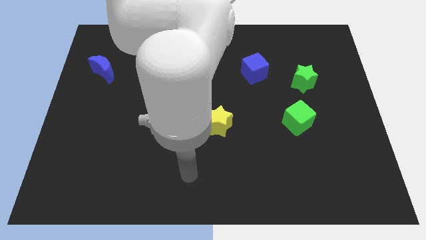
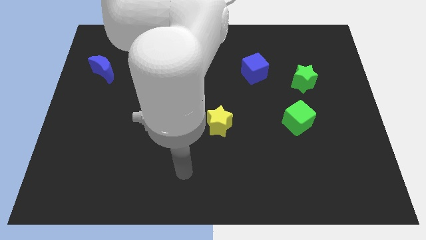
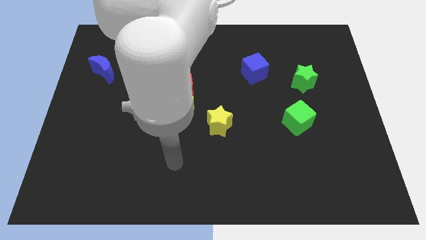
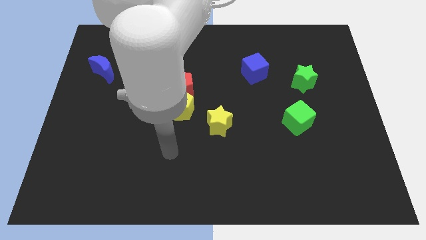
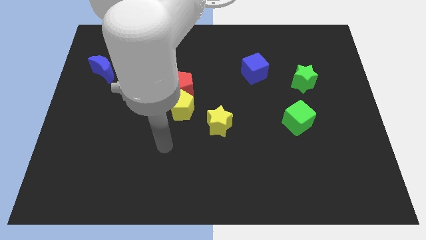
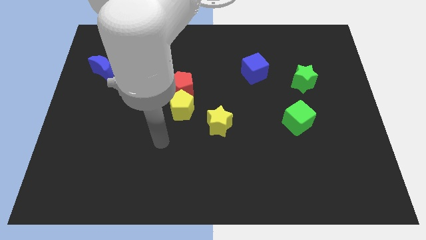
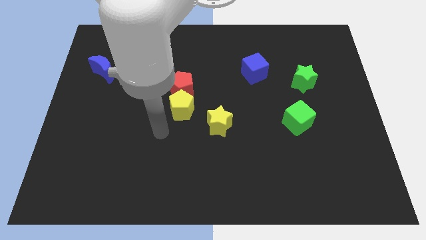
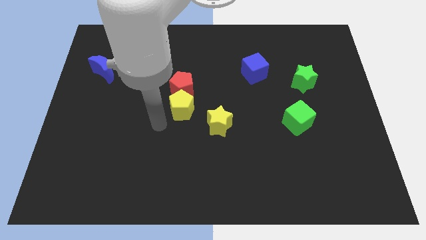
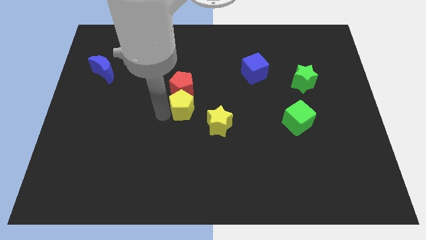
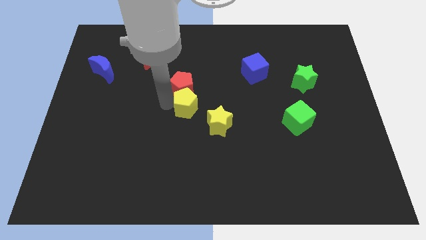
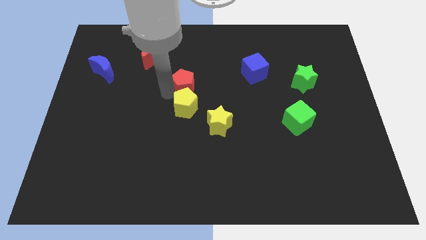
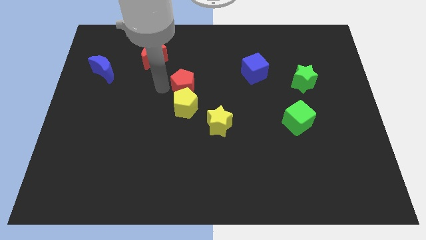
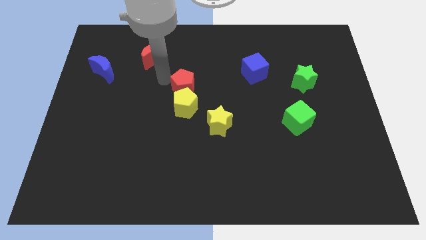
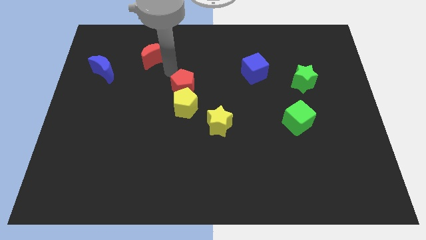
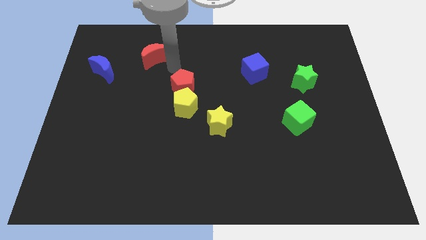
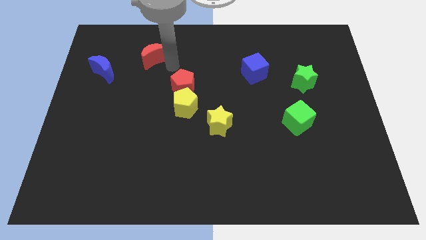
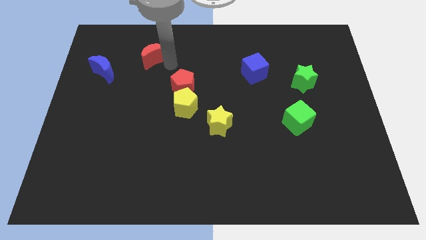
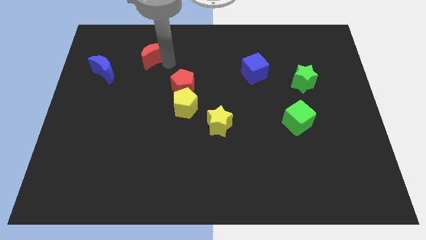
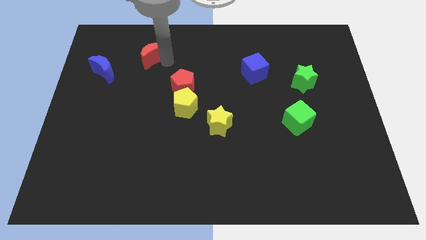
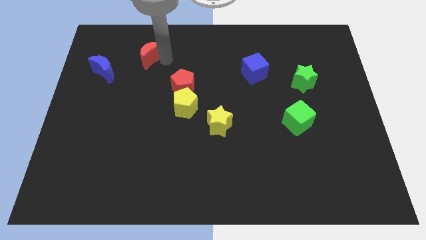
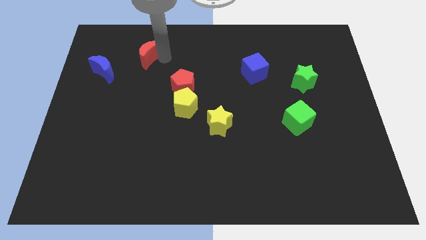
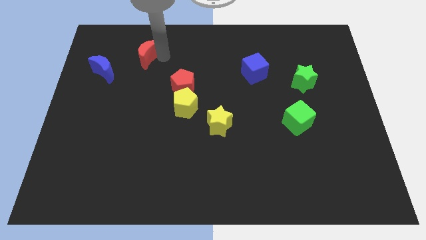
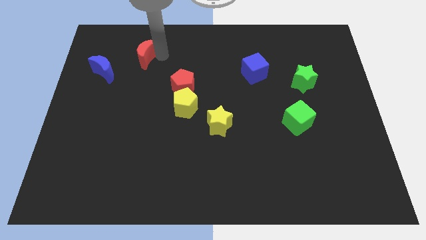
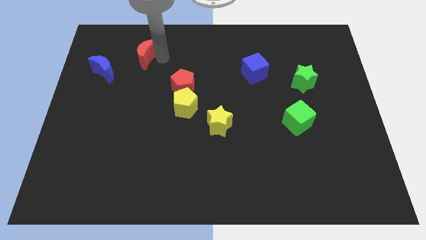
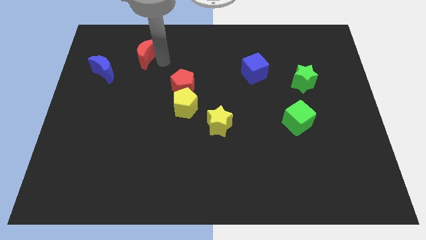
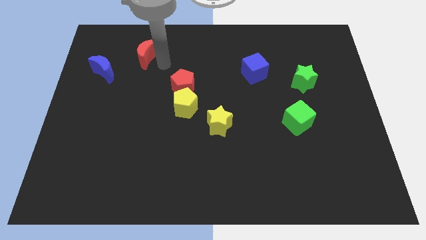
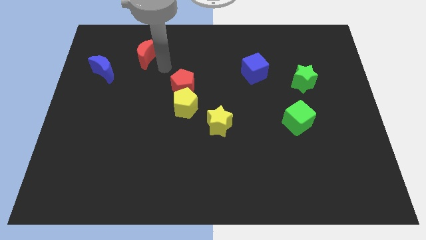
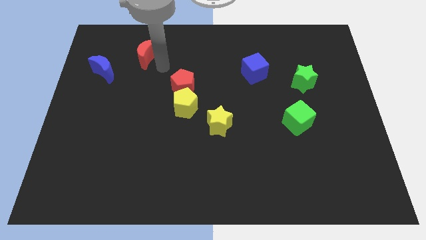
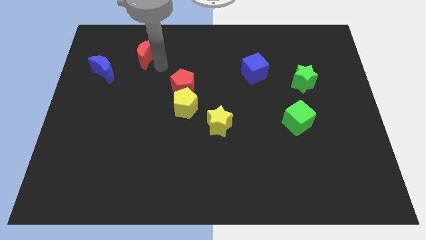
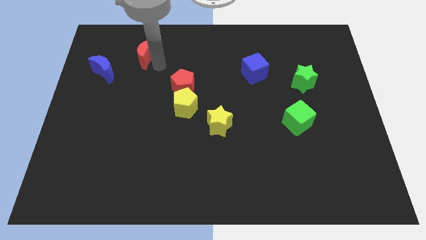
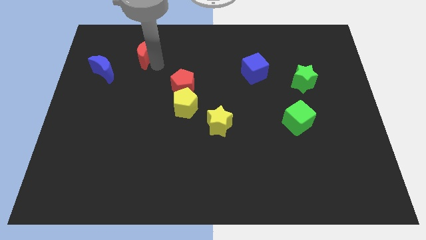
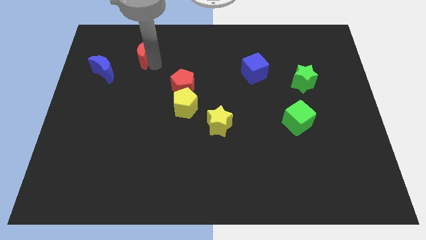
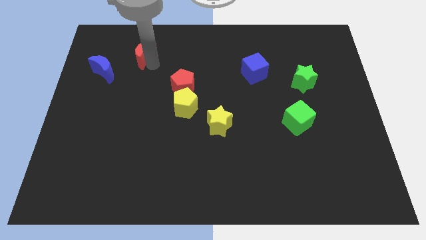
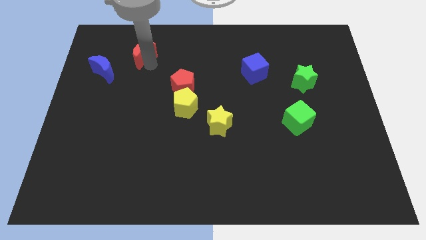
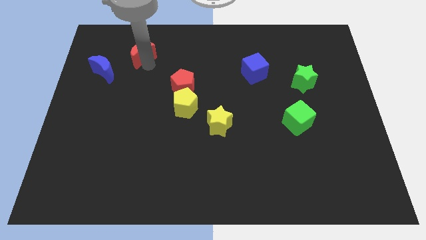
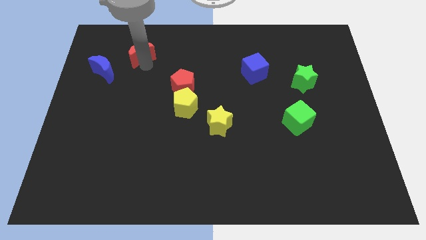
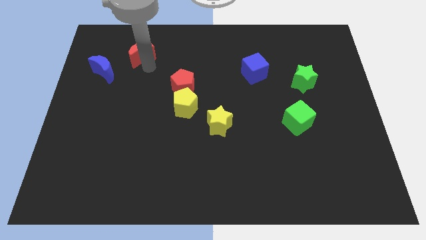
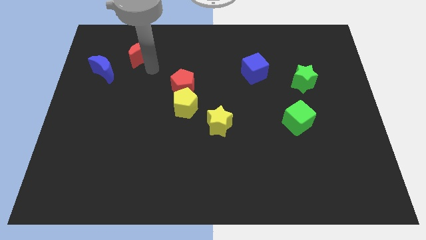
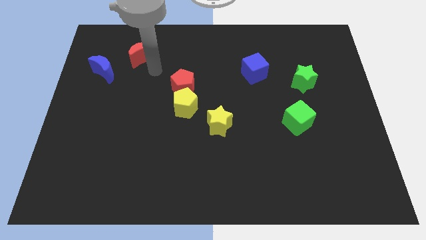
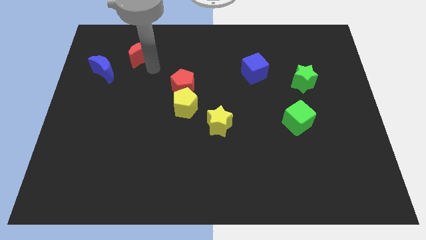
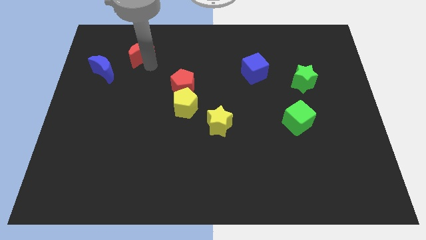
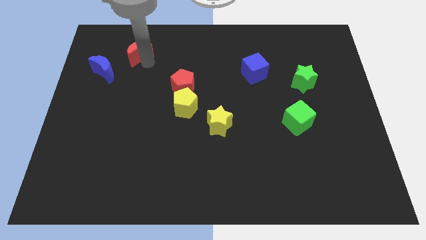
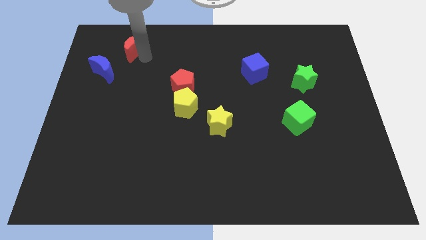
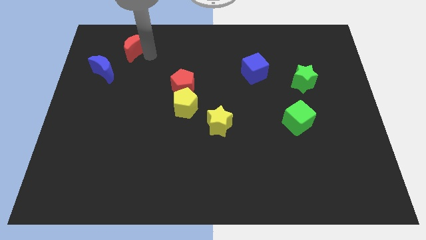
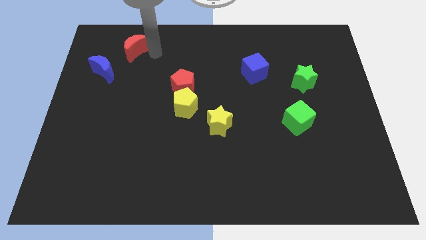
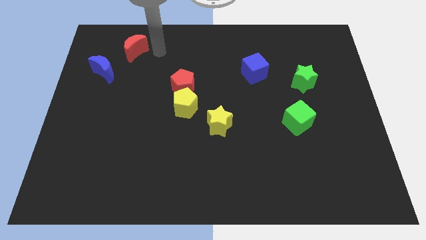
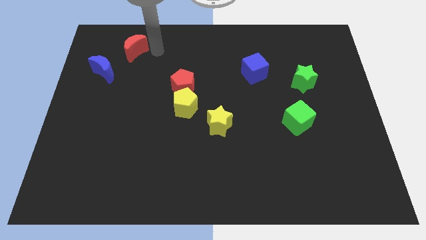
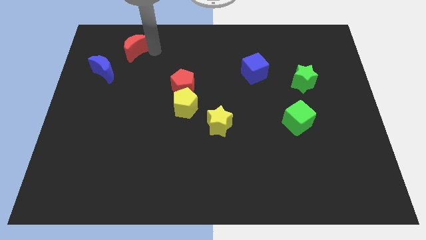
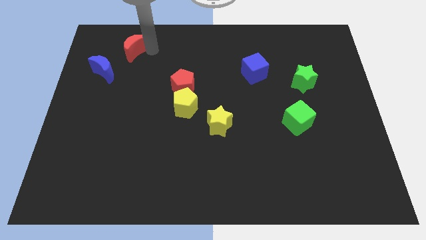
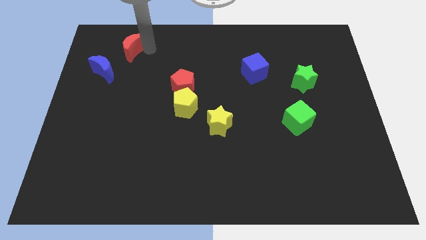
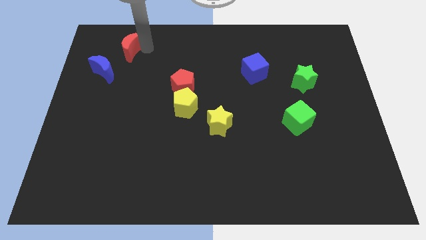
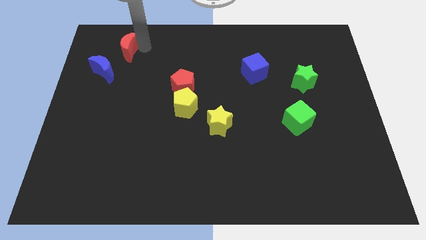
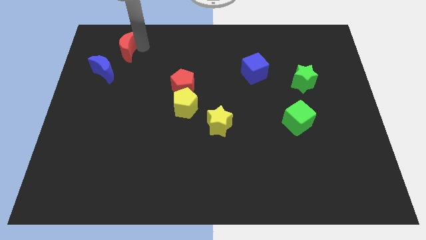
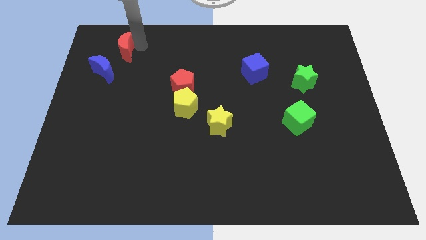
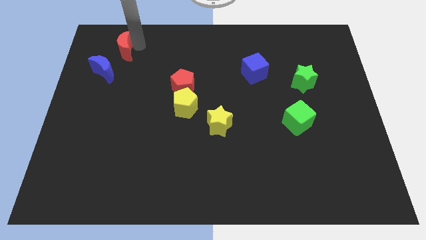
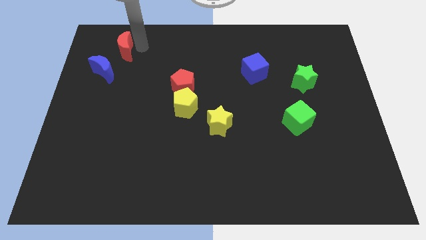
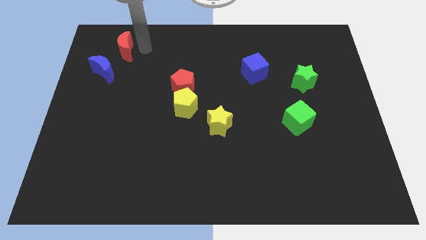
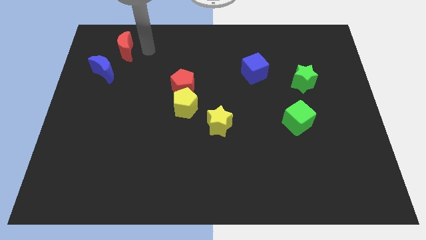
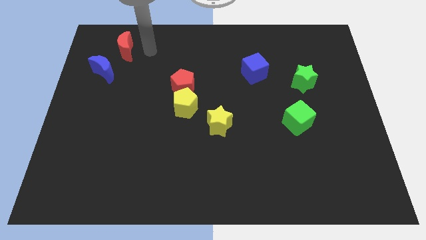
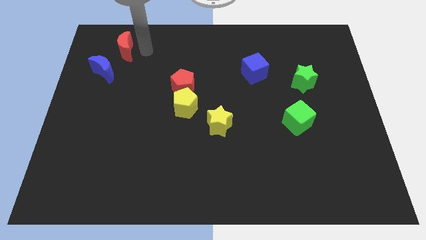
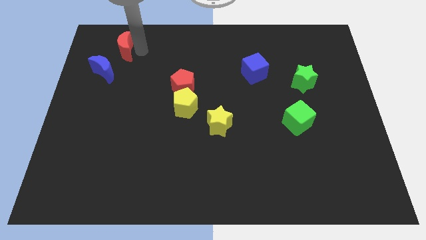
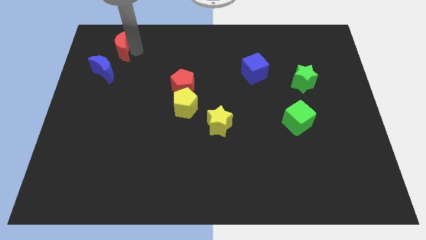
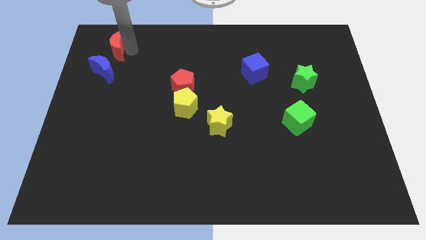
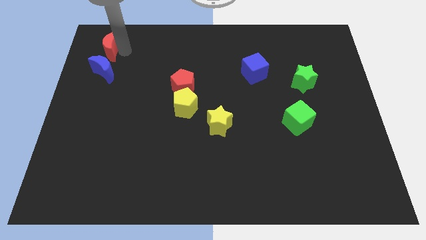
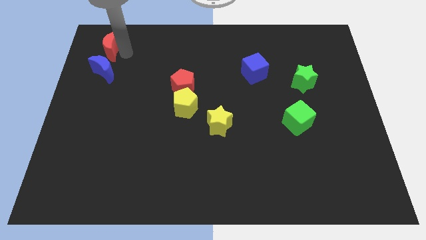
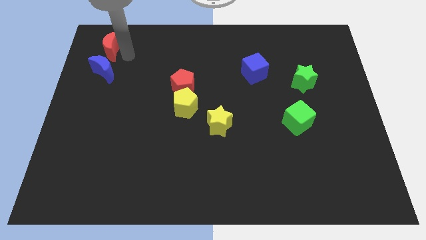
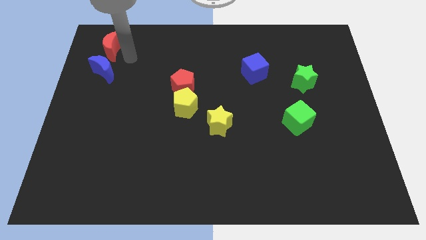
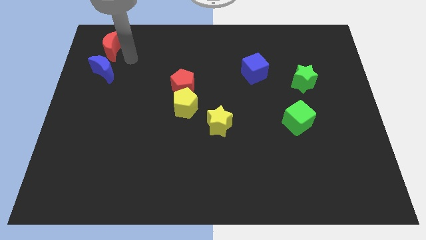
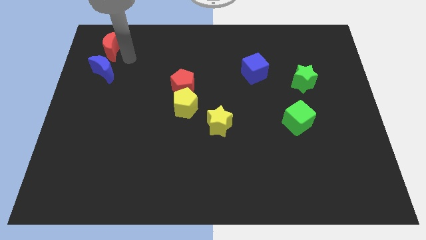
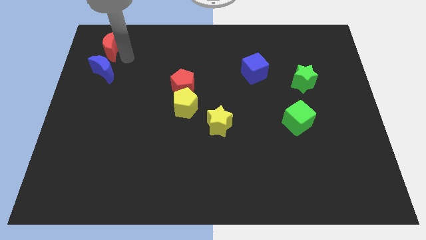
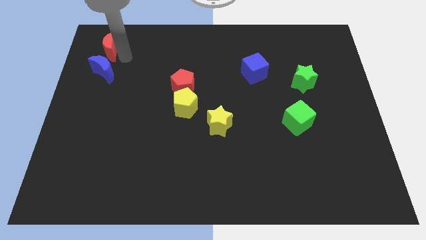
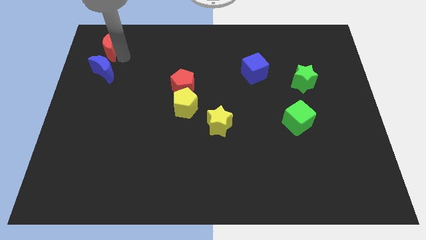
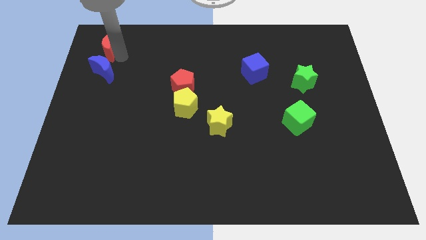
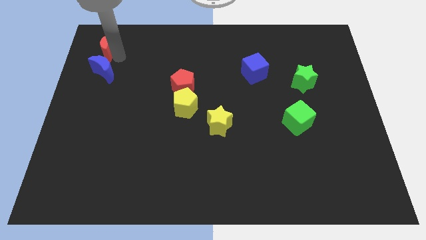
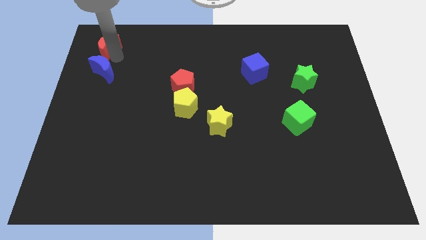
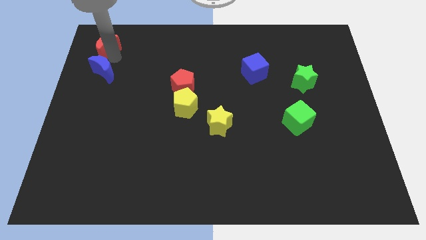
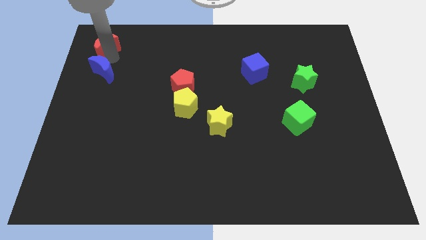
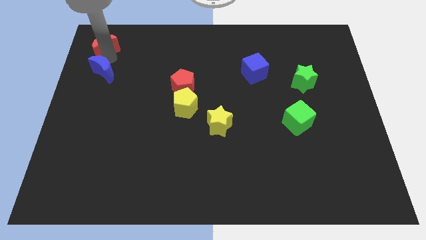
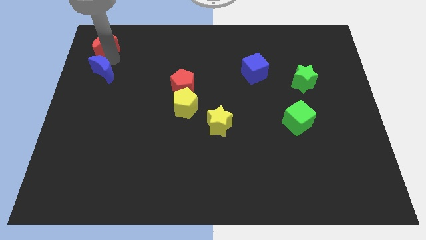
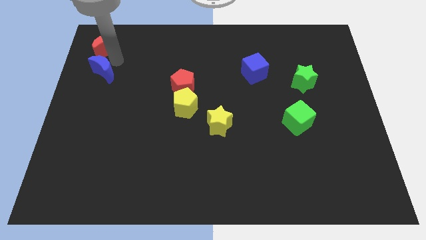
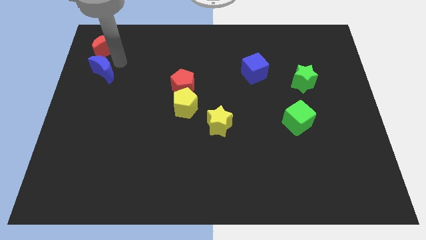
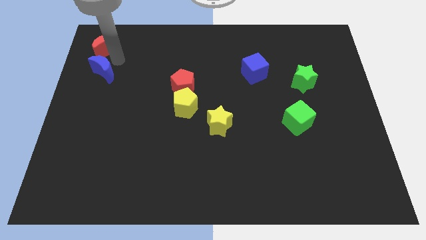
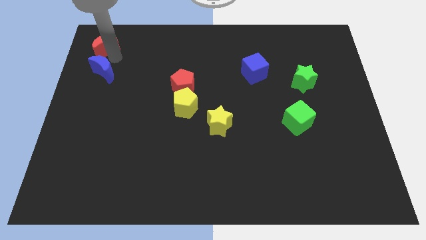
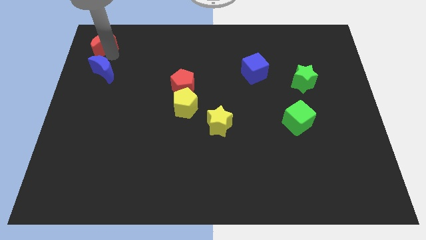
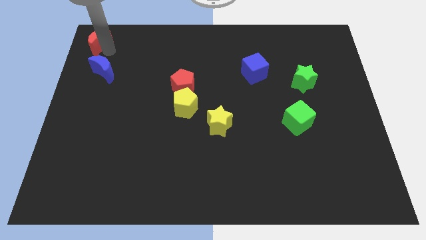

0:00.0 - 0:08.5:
move the red moon to the top left of the board
